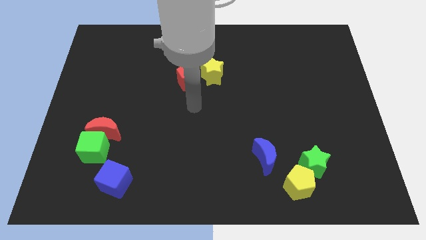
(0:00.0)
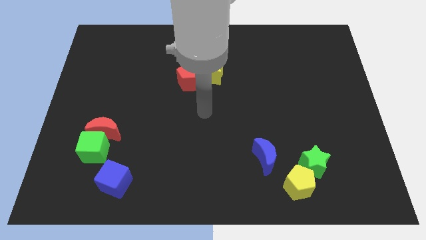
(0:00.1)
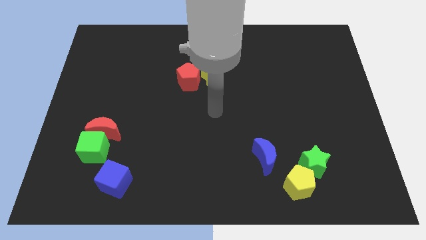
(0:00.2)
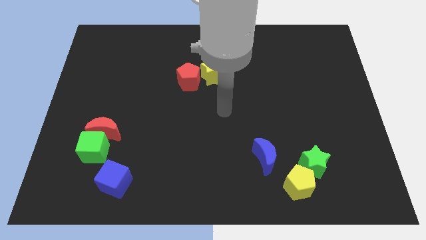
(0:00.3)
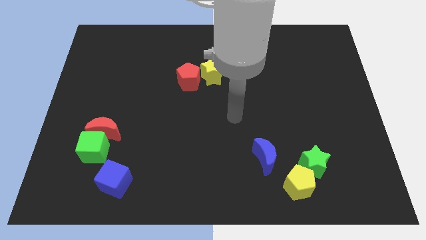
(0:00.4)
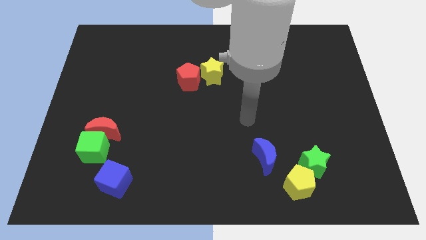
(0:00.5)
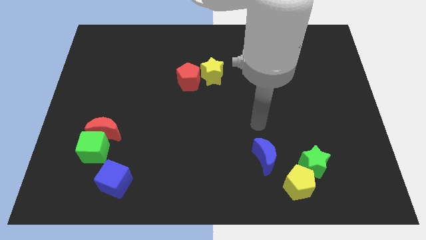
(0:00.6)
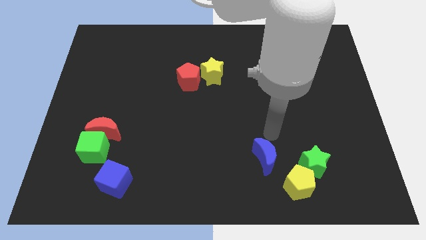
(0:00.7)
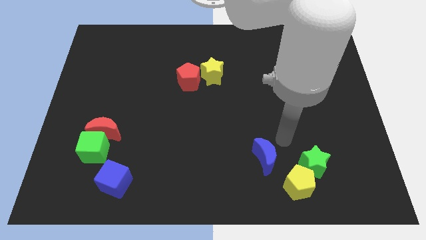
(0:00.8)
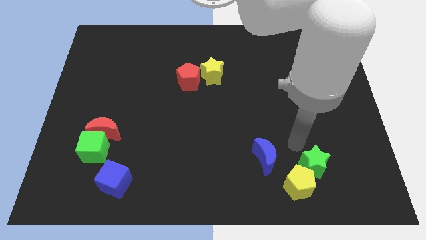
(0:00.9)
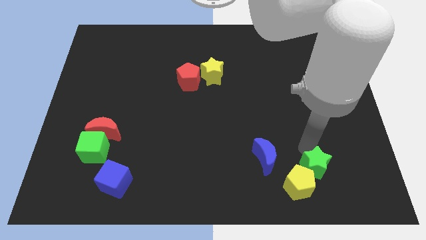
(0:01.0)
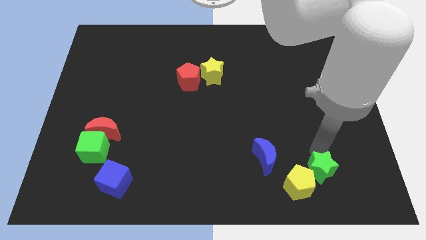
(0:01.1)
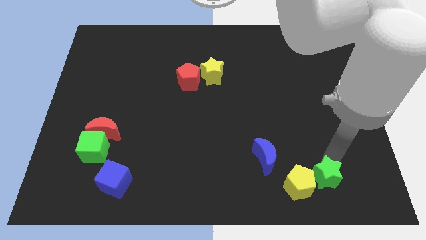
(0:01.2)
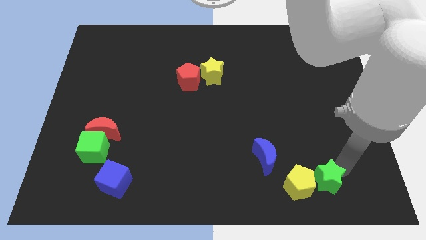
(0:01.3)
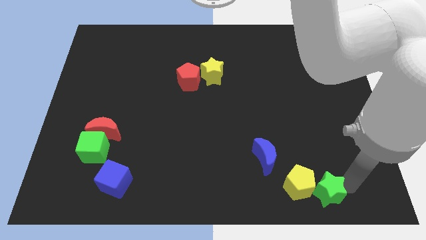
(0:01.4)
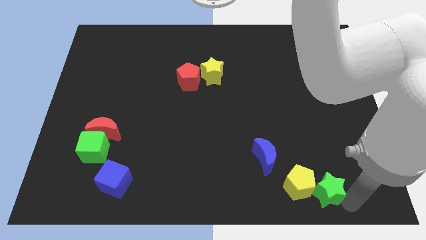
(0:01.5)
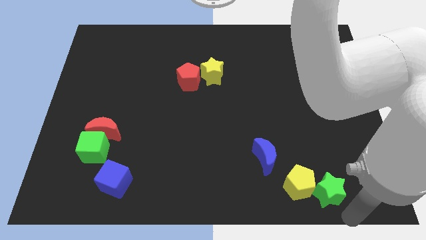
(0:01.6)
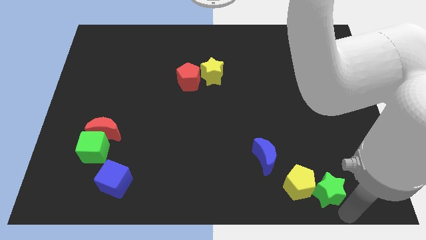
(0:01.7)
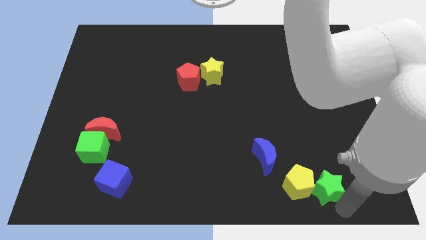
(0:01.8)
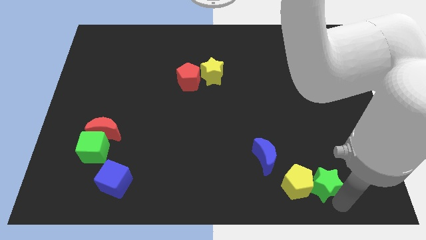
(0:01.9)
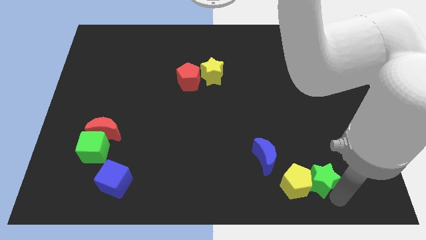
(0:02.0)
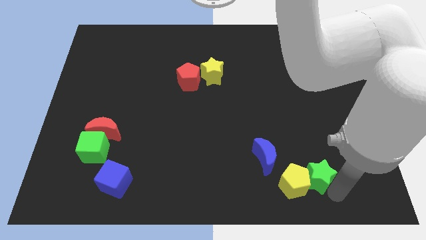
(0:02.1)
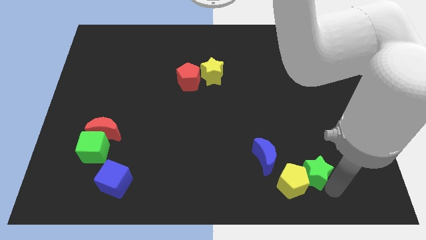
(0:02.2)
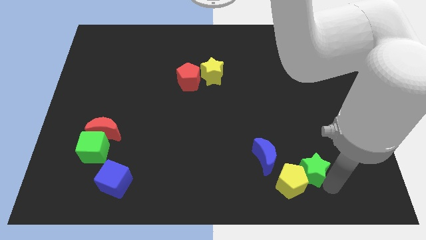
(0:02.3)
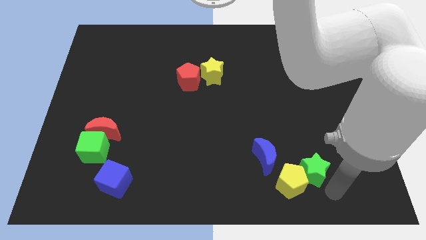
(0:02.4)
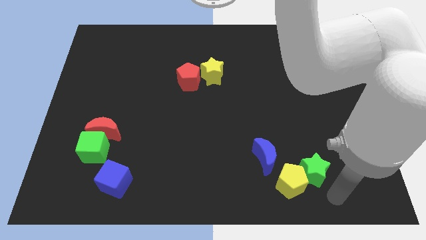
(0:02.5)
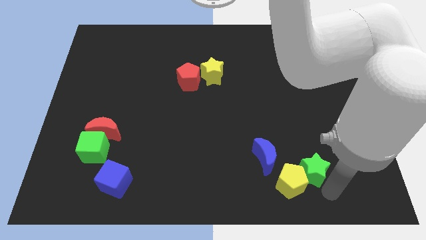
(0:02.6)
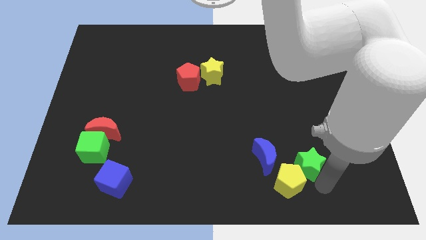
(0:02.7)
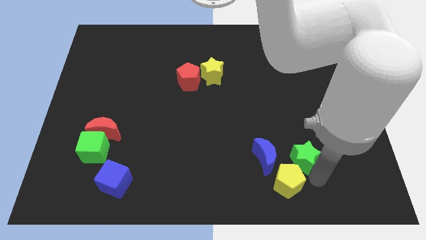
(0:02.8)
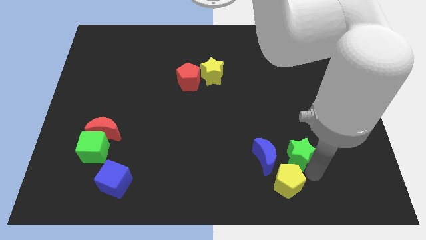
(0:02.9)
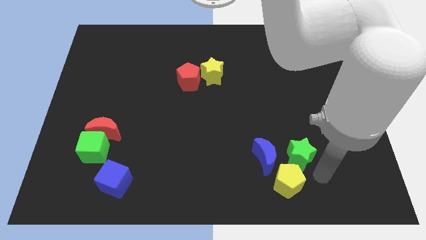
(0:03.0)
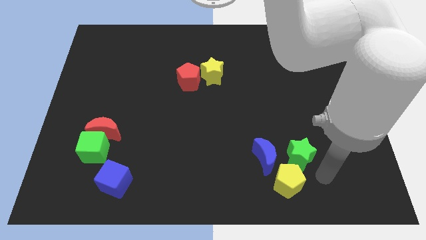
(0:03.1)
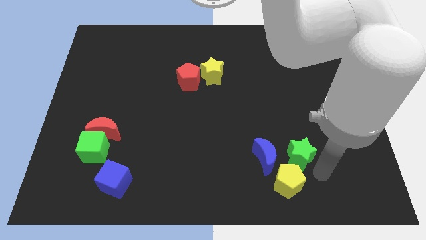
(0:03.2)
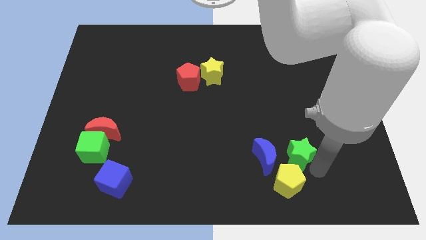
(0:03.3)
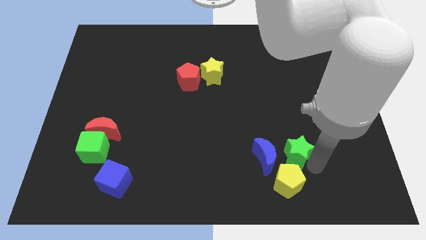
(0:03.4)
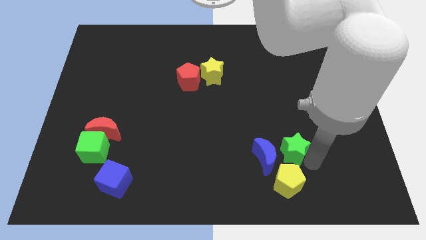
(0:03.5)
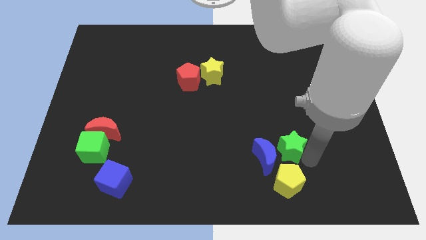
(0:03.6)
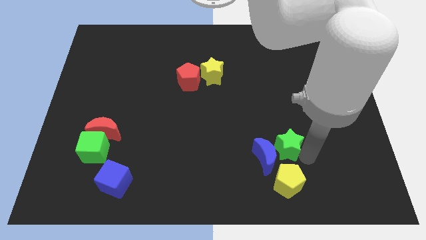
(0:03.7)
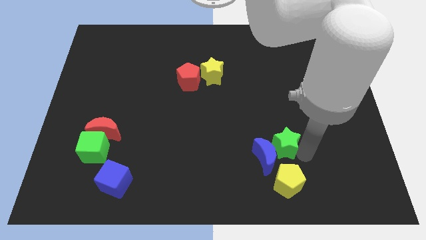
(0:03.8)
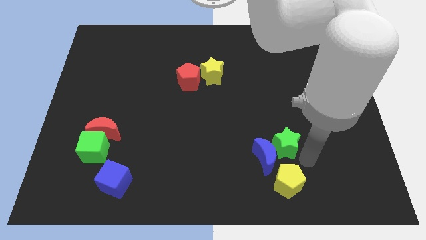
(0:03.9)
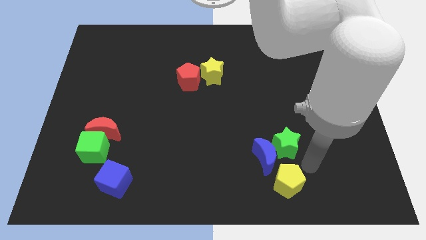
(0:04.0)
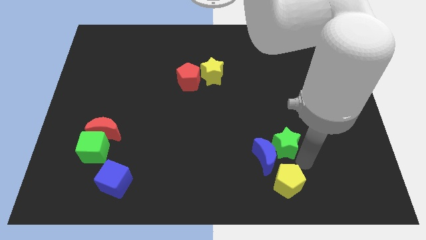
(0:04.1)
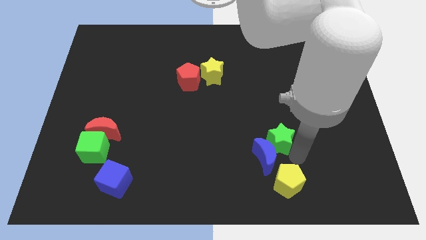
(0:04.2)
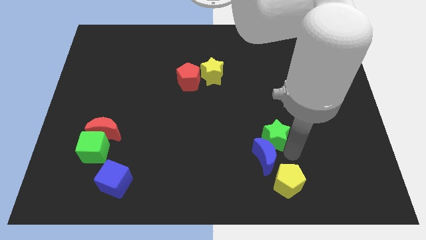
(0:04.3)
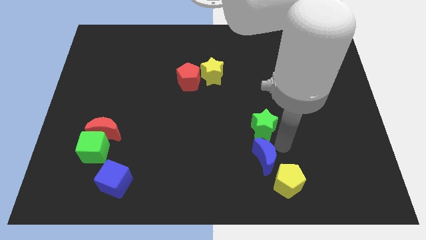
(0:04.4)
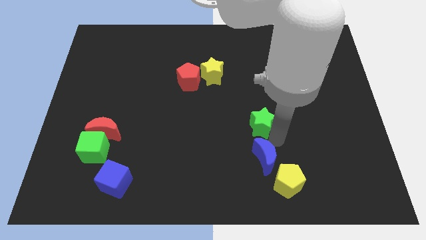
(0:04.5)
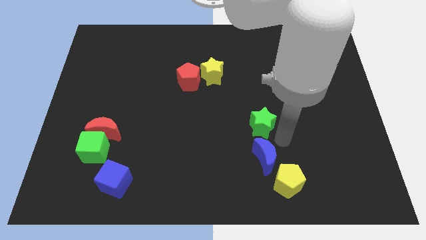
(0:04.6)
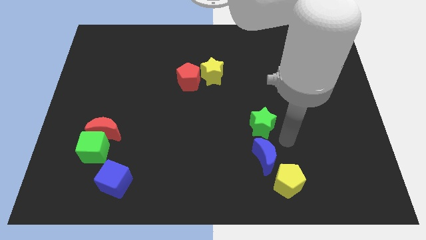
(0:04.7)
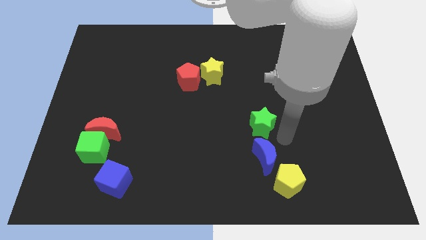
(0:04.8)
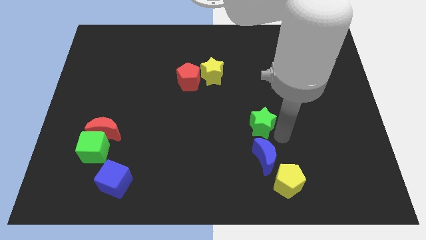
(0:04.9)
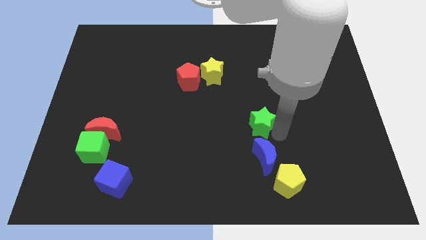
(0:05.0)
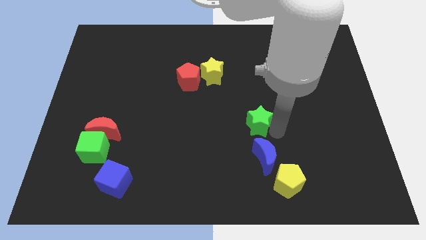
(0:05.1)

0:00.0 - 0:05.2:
slide the green star to the center

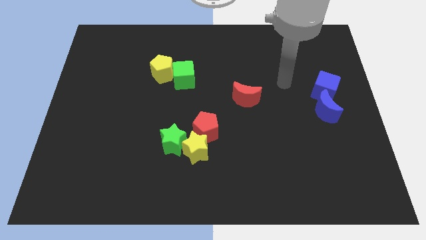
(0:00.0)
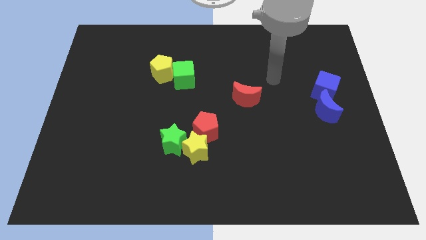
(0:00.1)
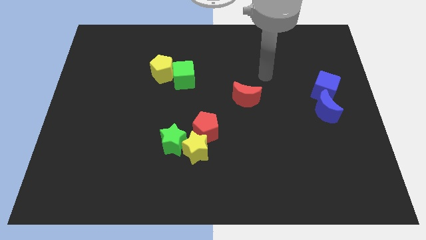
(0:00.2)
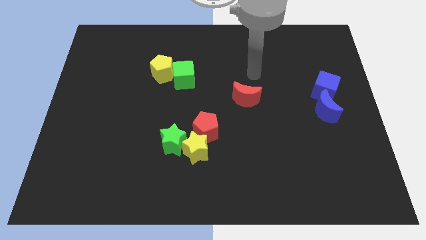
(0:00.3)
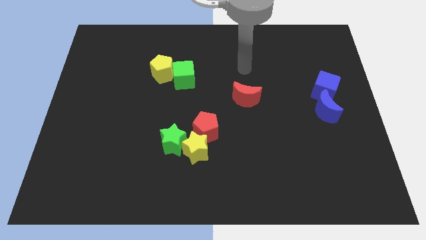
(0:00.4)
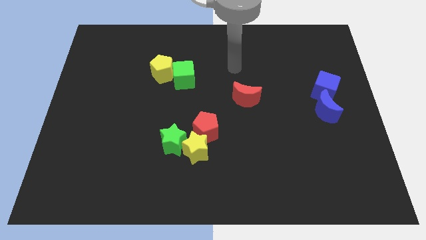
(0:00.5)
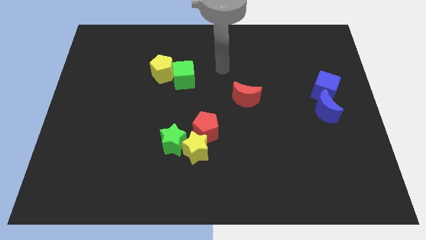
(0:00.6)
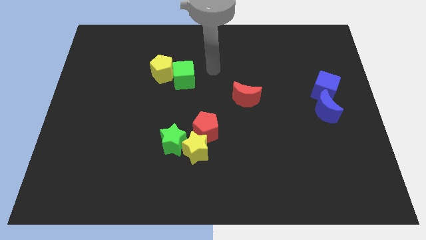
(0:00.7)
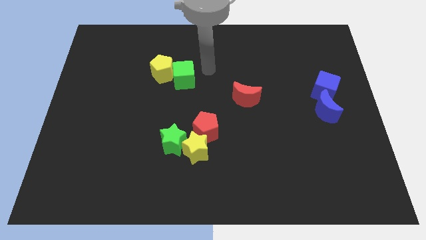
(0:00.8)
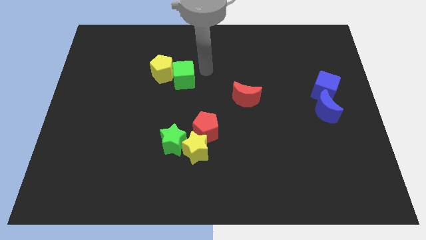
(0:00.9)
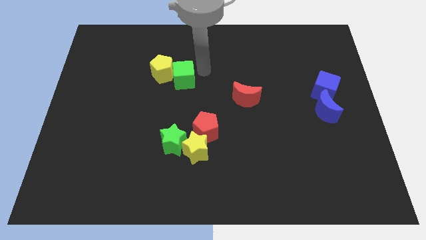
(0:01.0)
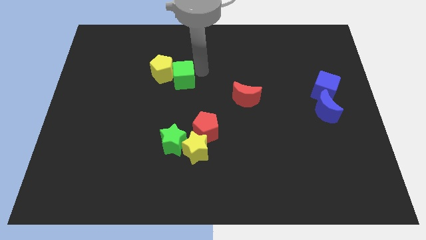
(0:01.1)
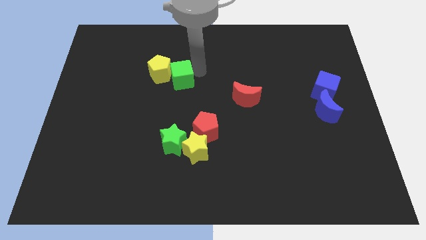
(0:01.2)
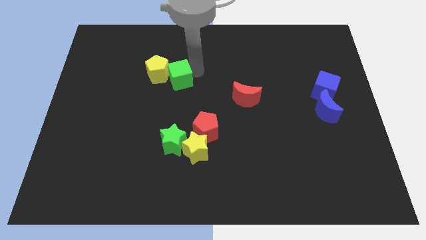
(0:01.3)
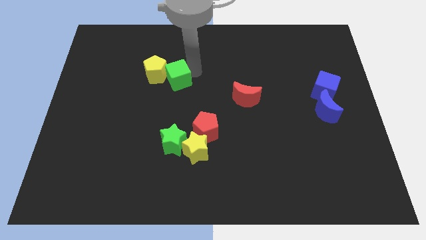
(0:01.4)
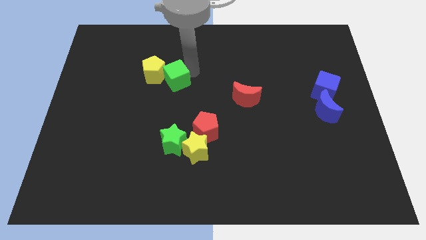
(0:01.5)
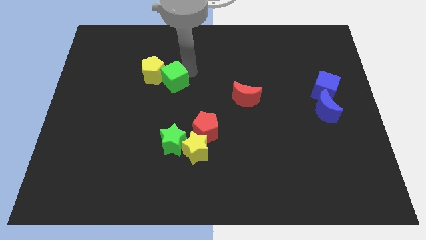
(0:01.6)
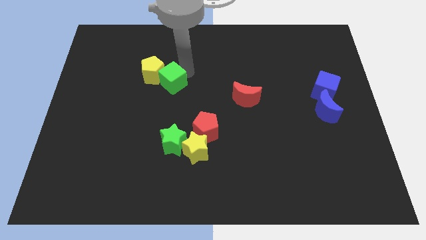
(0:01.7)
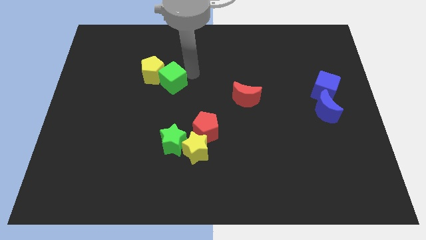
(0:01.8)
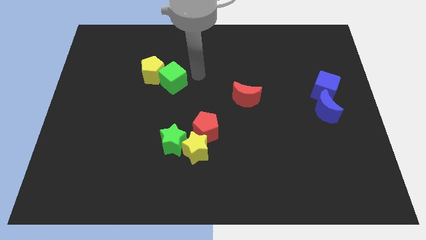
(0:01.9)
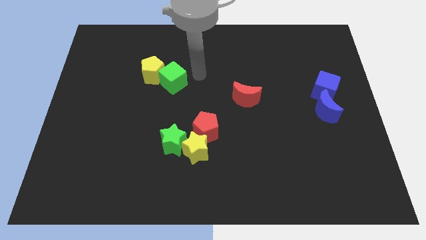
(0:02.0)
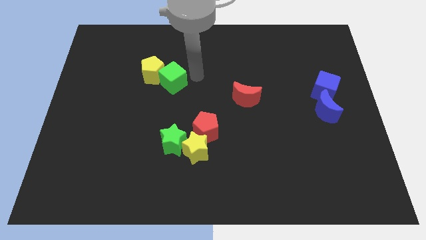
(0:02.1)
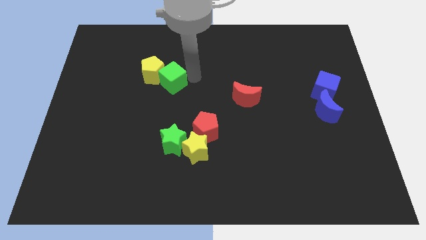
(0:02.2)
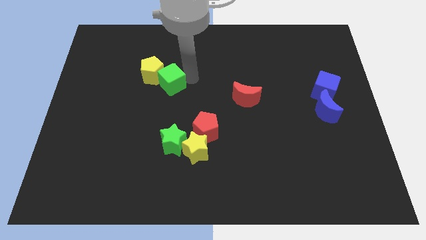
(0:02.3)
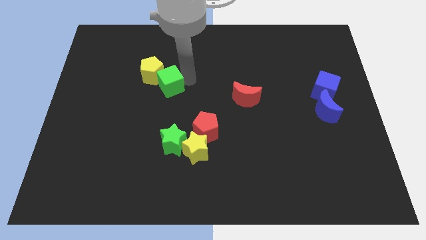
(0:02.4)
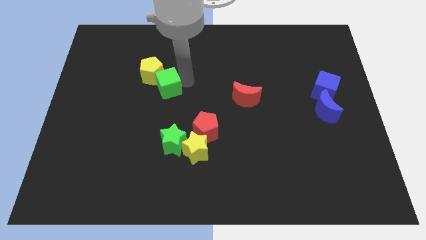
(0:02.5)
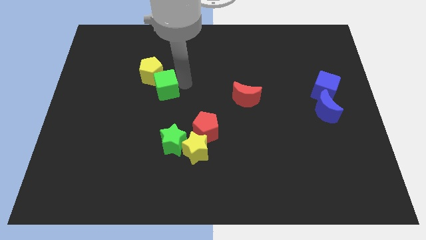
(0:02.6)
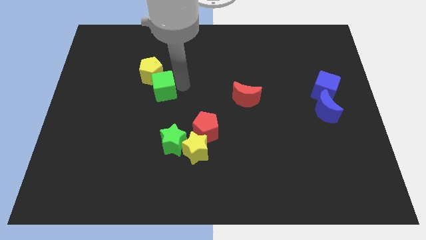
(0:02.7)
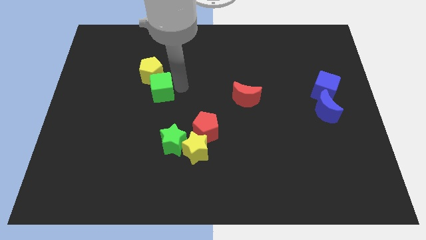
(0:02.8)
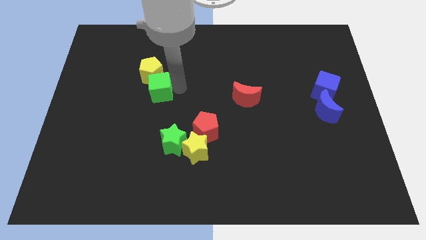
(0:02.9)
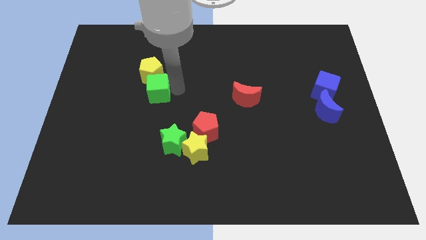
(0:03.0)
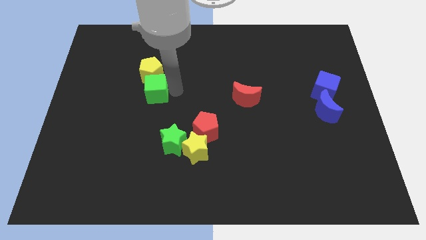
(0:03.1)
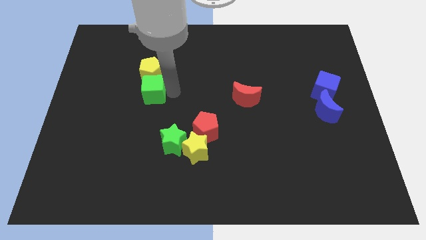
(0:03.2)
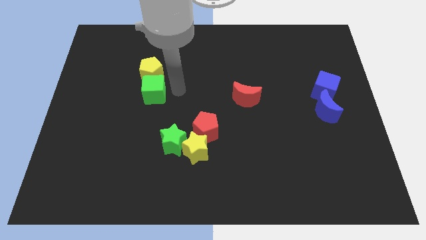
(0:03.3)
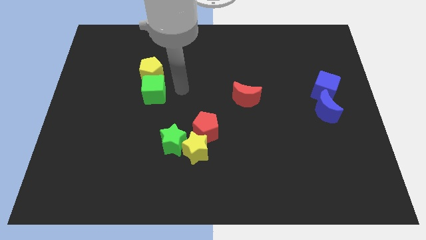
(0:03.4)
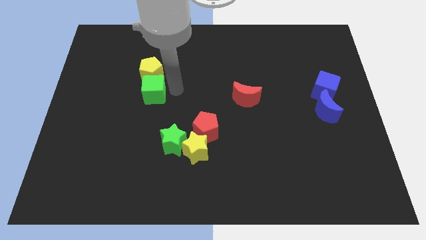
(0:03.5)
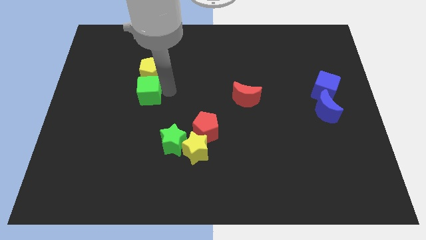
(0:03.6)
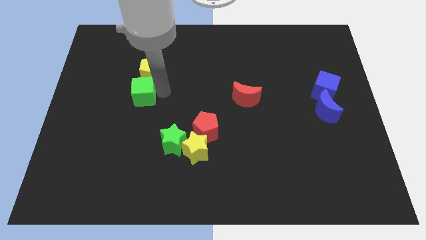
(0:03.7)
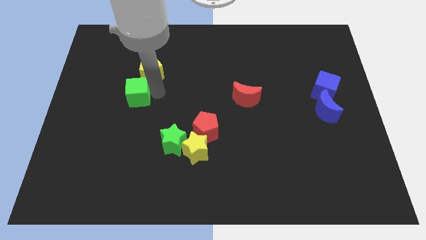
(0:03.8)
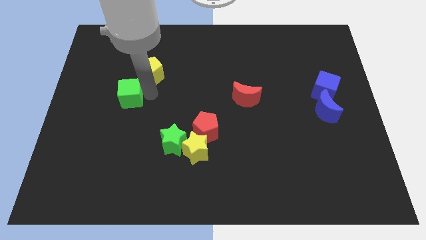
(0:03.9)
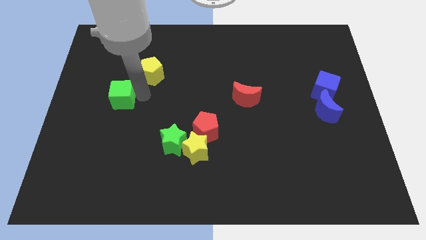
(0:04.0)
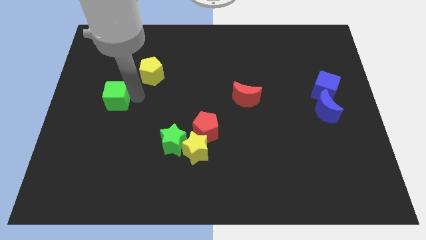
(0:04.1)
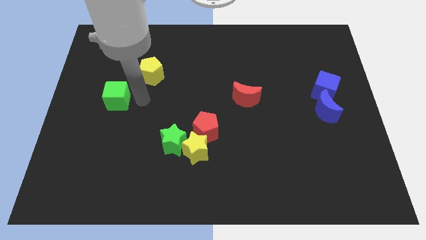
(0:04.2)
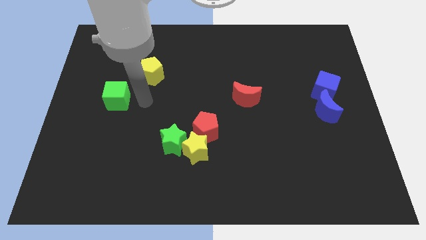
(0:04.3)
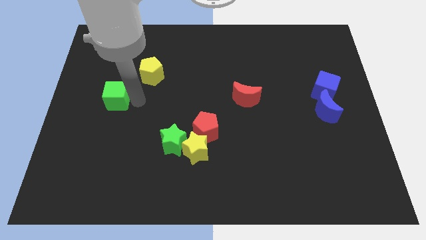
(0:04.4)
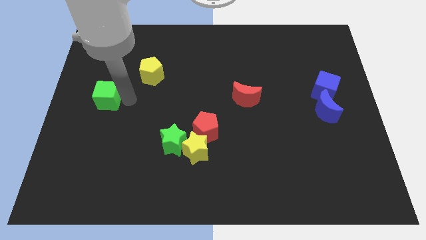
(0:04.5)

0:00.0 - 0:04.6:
move the green cube to the left side
